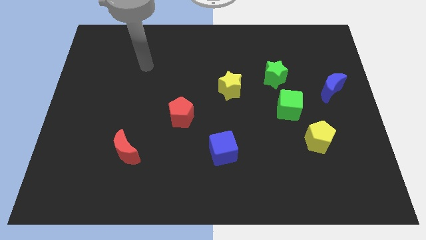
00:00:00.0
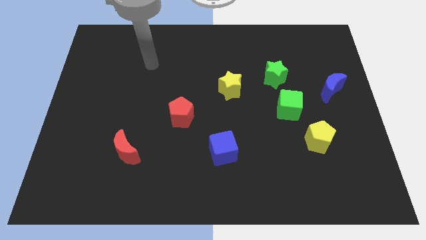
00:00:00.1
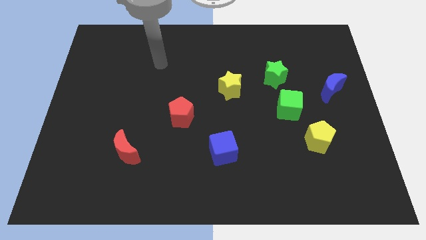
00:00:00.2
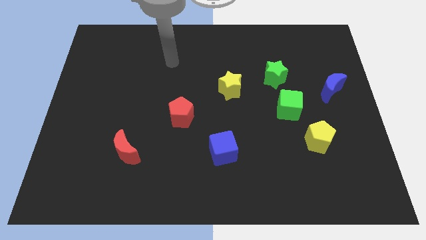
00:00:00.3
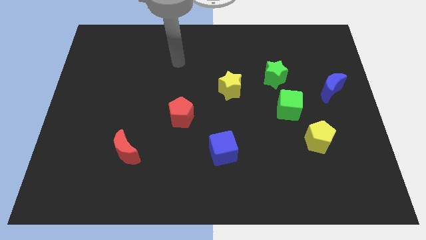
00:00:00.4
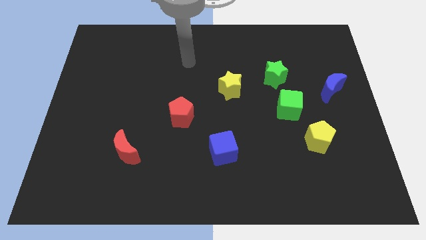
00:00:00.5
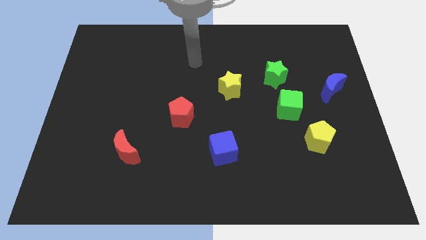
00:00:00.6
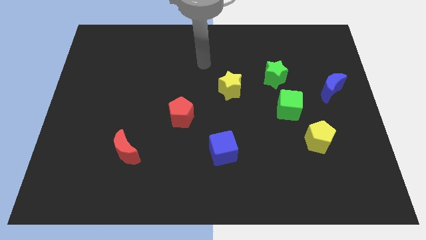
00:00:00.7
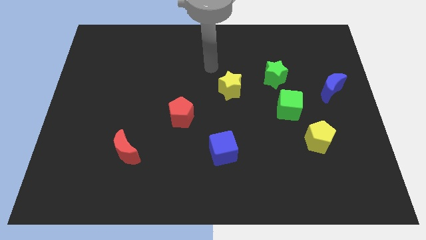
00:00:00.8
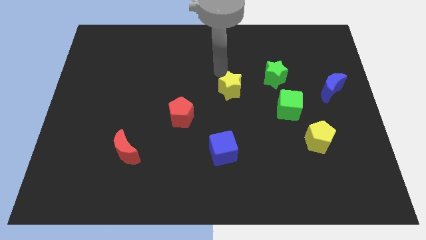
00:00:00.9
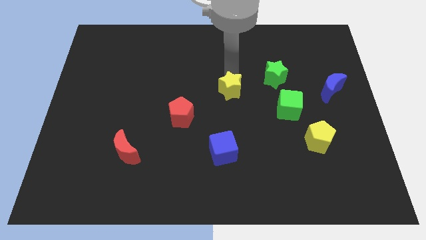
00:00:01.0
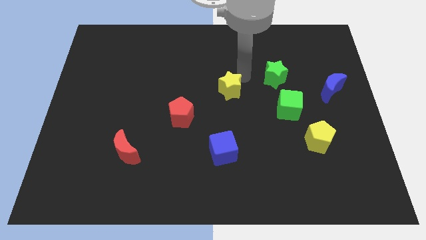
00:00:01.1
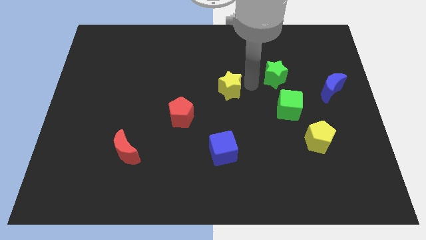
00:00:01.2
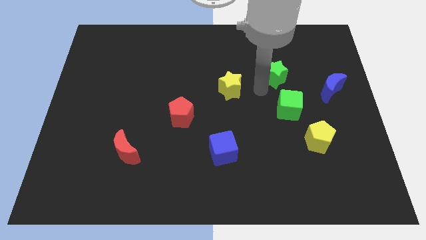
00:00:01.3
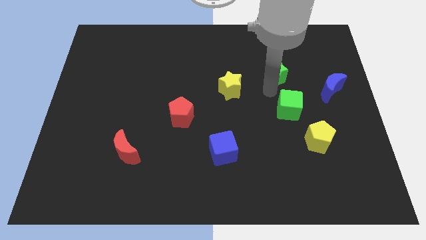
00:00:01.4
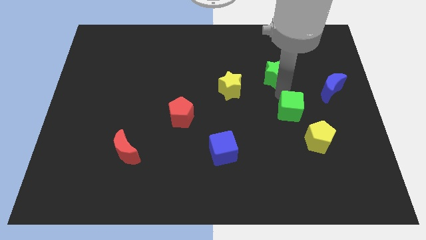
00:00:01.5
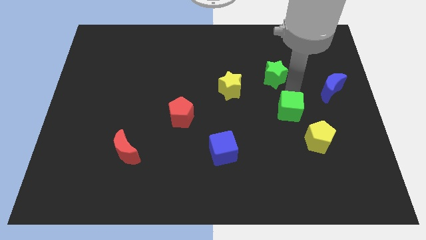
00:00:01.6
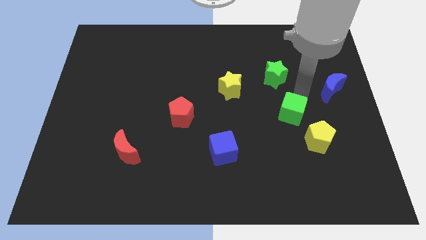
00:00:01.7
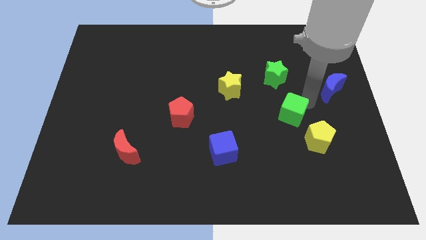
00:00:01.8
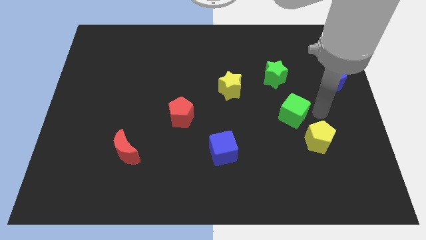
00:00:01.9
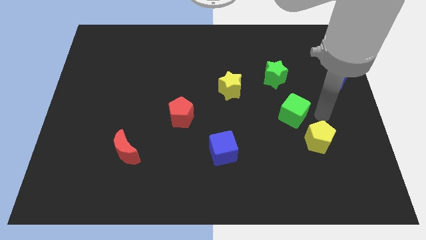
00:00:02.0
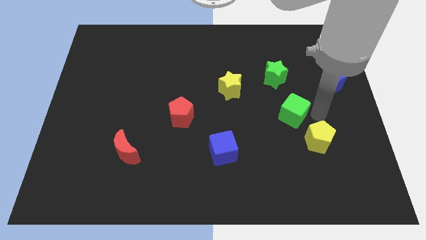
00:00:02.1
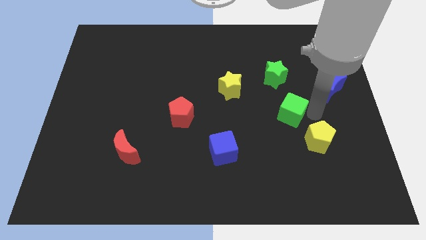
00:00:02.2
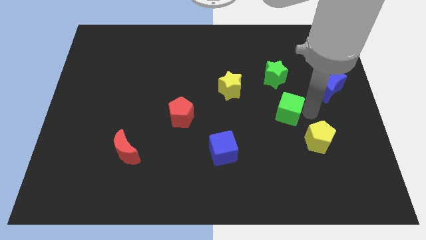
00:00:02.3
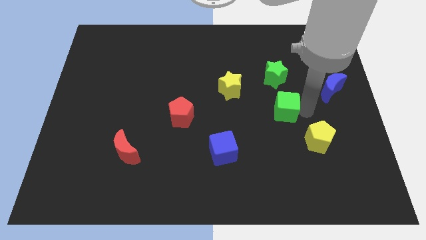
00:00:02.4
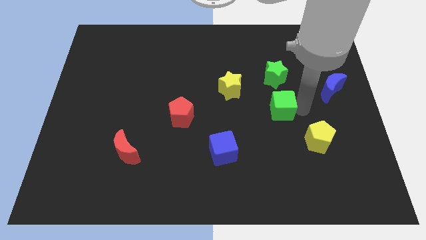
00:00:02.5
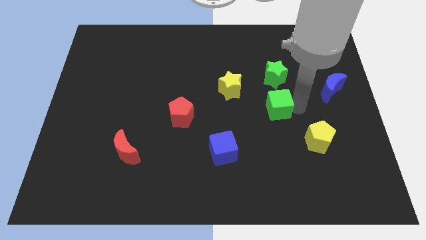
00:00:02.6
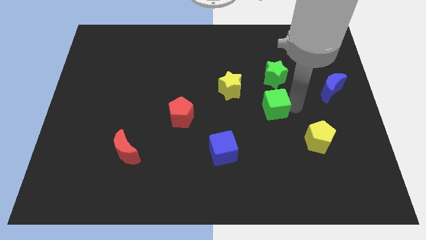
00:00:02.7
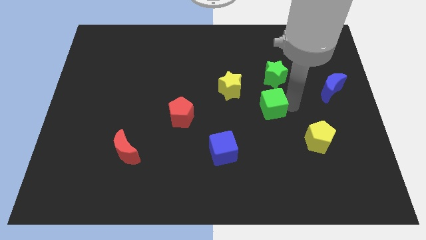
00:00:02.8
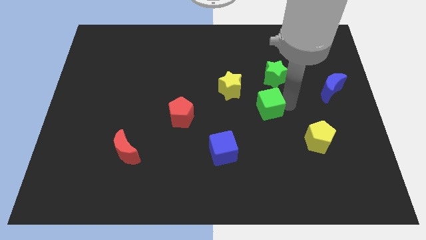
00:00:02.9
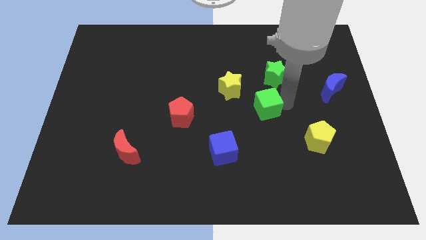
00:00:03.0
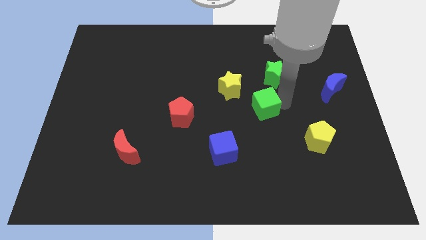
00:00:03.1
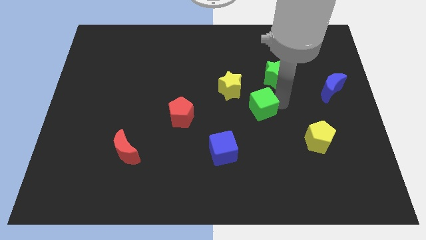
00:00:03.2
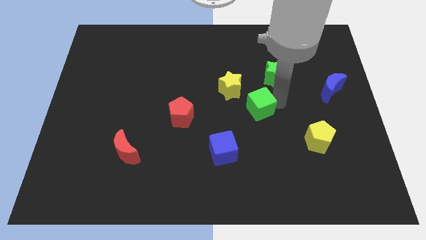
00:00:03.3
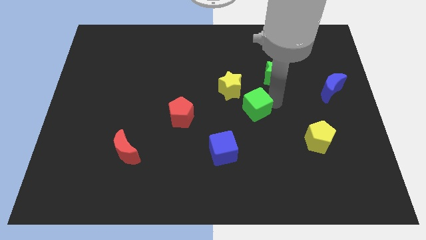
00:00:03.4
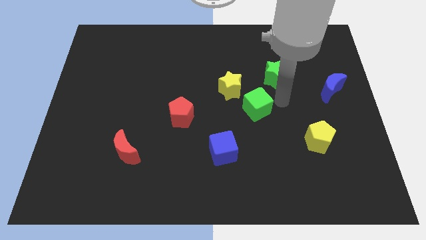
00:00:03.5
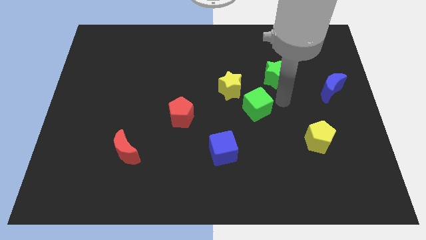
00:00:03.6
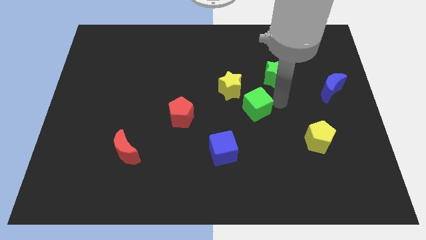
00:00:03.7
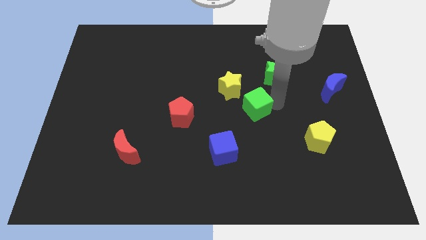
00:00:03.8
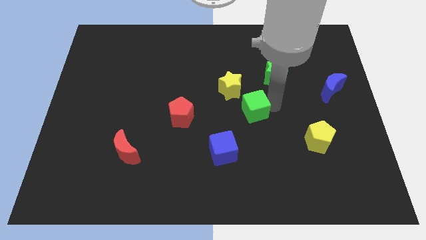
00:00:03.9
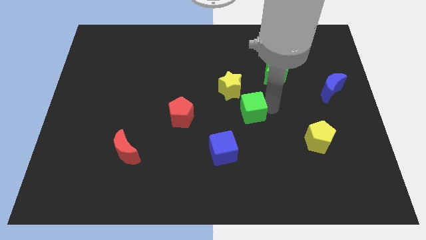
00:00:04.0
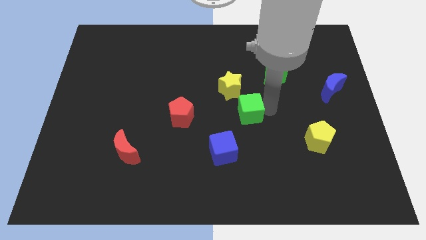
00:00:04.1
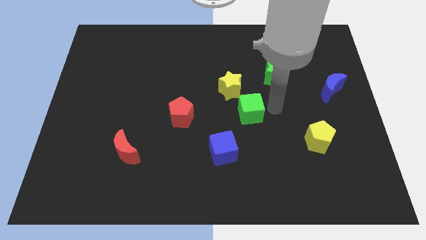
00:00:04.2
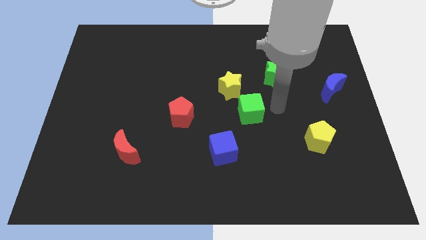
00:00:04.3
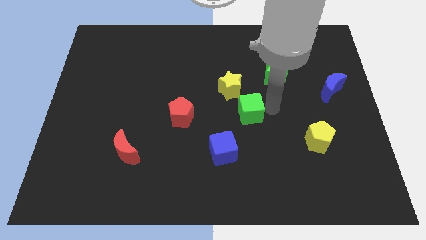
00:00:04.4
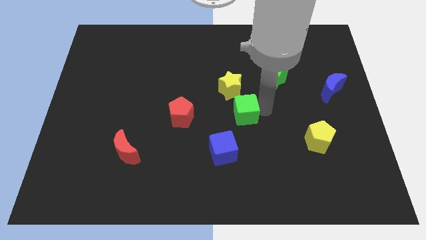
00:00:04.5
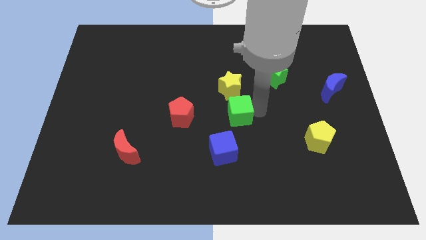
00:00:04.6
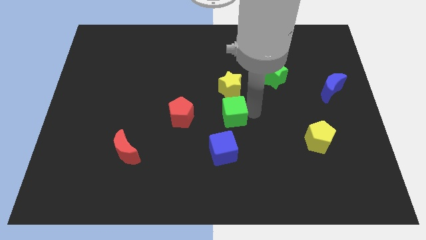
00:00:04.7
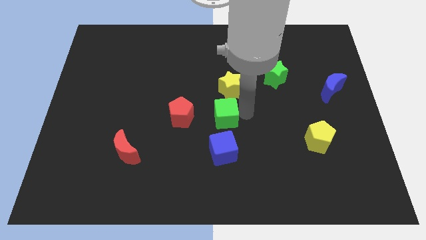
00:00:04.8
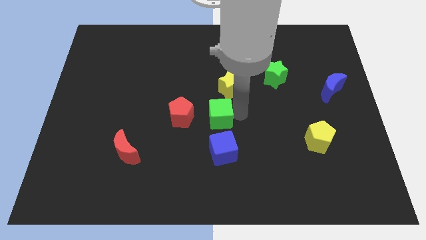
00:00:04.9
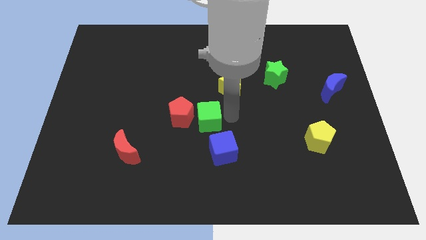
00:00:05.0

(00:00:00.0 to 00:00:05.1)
slide the green cube towards the red pentagon

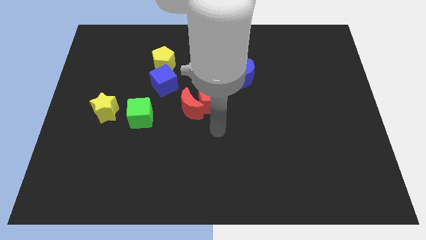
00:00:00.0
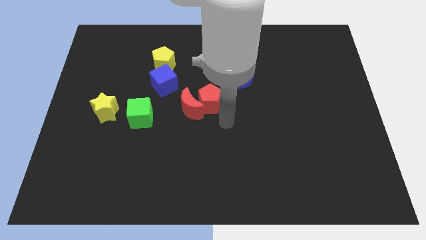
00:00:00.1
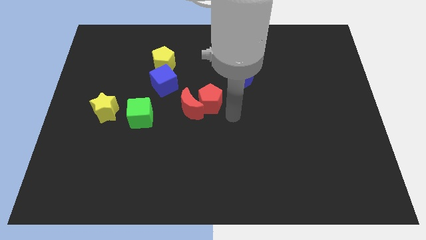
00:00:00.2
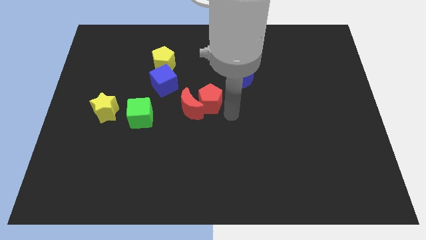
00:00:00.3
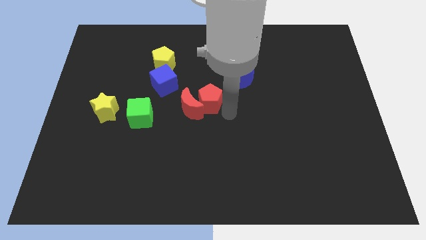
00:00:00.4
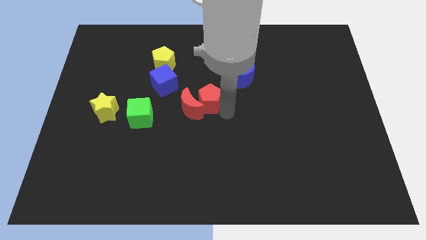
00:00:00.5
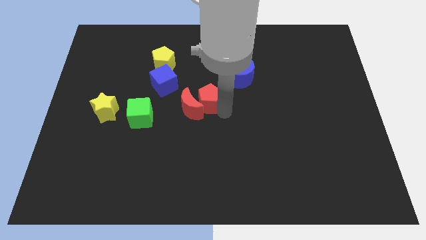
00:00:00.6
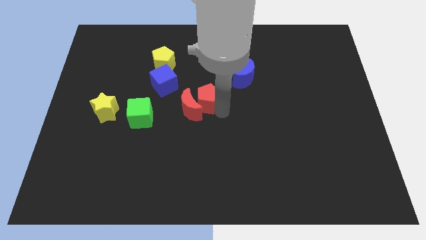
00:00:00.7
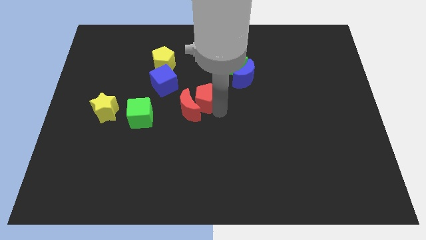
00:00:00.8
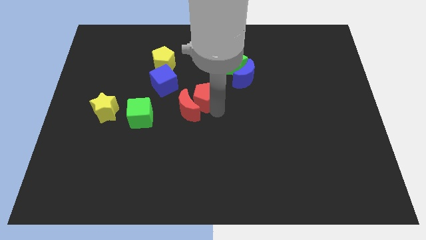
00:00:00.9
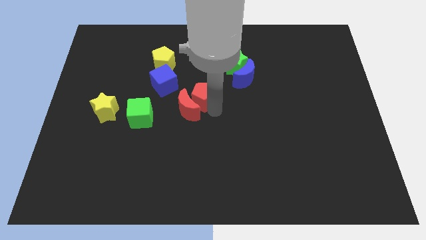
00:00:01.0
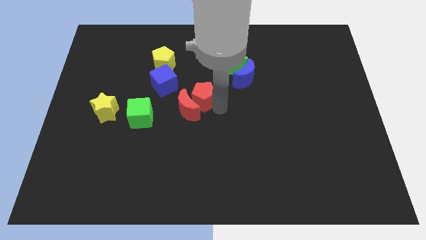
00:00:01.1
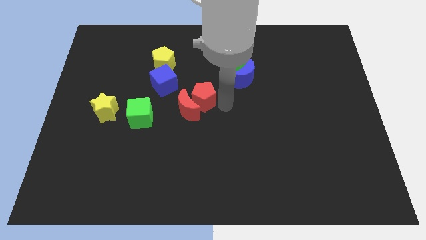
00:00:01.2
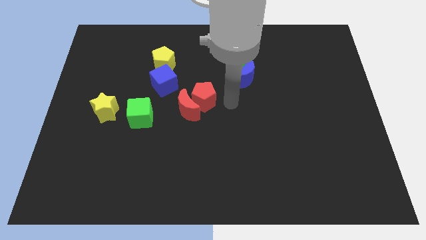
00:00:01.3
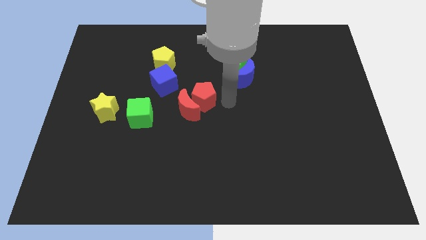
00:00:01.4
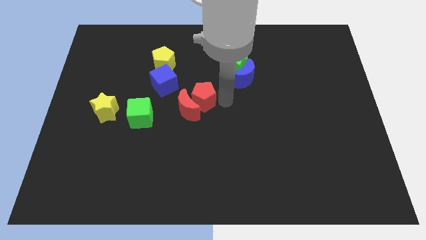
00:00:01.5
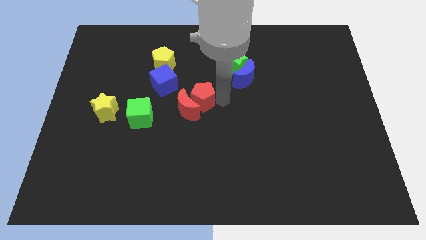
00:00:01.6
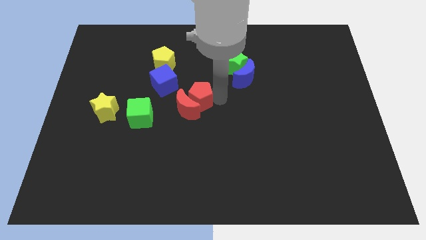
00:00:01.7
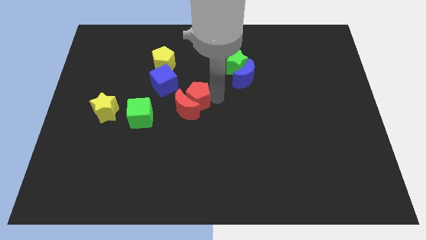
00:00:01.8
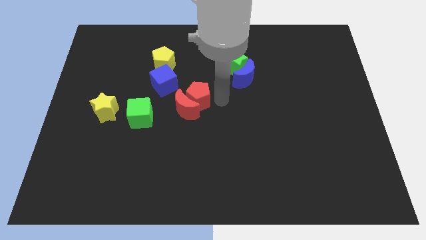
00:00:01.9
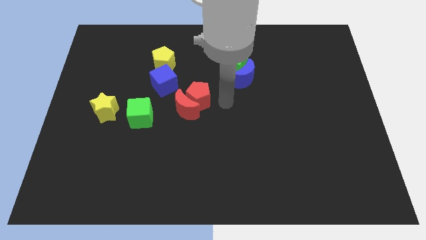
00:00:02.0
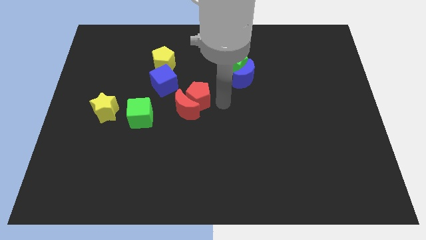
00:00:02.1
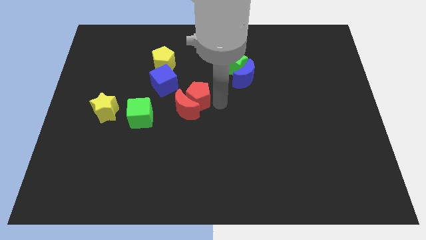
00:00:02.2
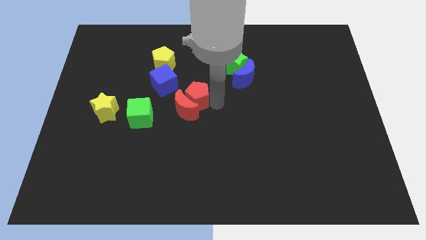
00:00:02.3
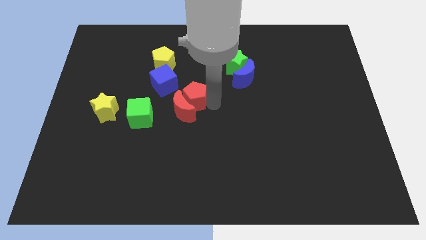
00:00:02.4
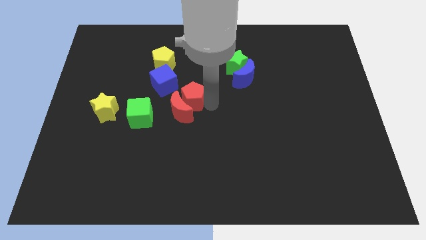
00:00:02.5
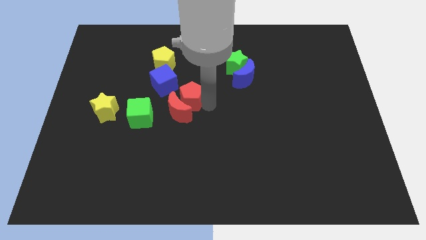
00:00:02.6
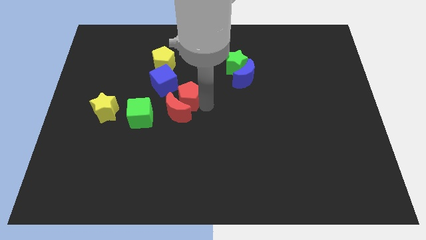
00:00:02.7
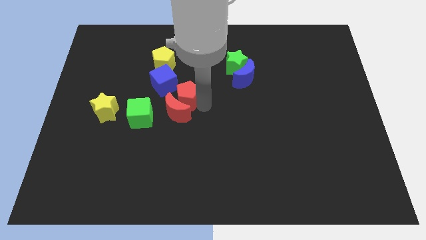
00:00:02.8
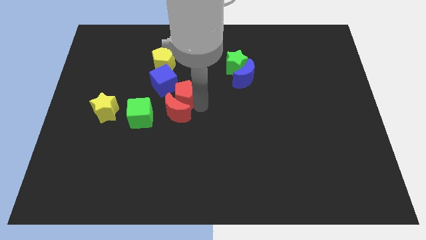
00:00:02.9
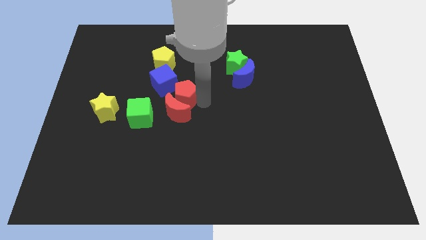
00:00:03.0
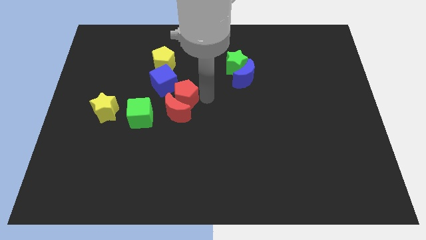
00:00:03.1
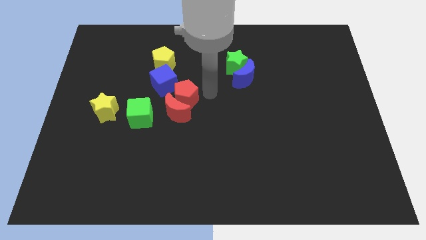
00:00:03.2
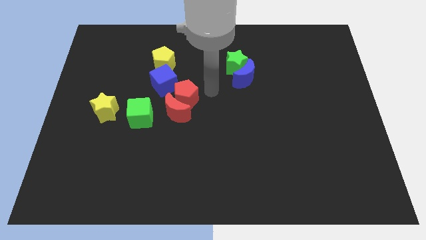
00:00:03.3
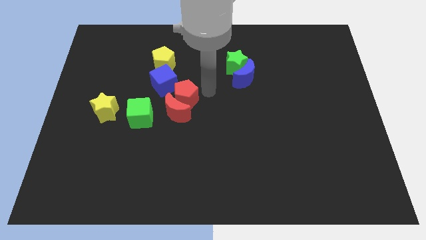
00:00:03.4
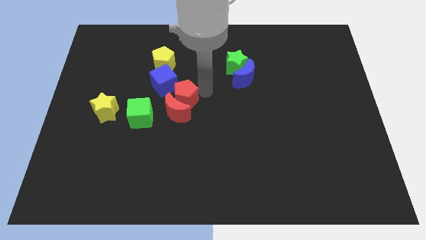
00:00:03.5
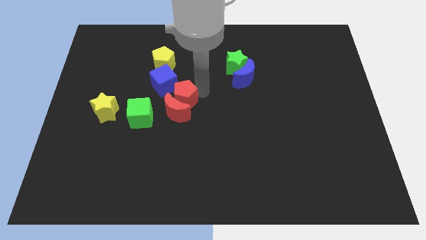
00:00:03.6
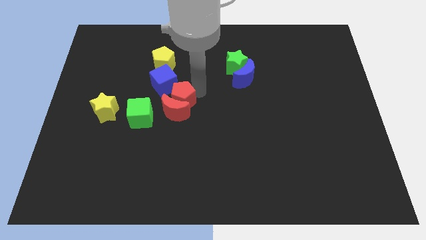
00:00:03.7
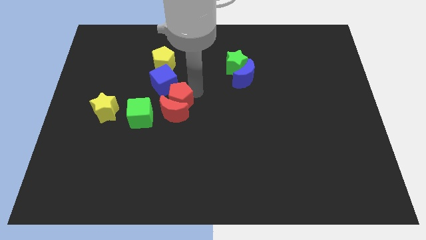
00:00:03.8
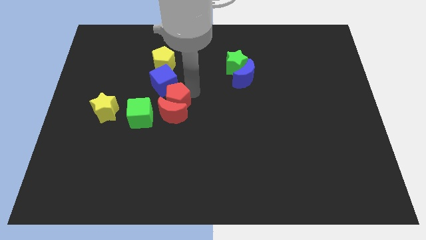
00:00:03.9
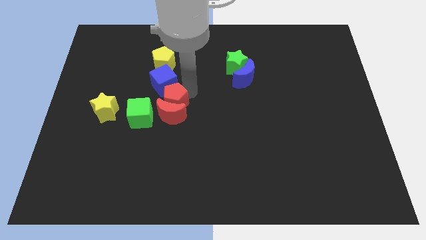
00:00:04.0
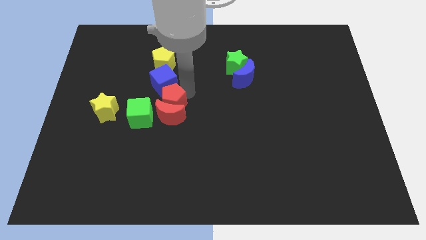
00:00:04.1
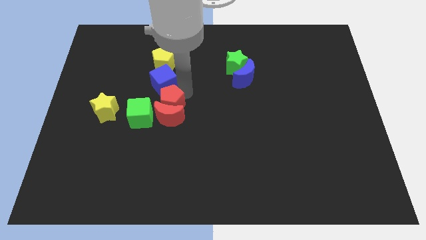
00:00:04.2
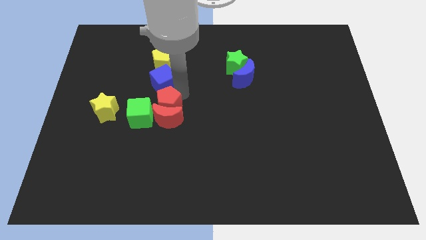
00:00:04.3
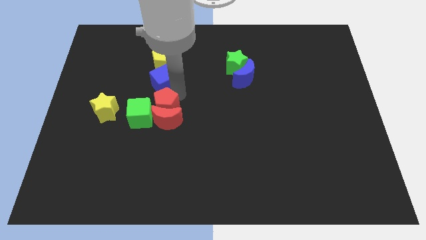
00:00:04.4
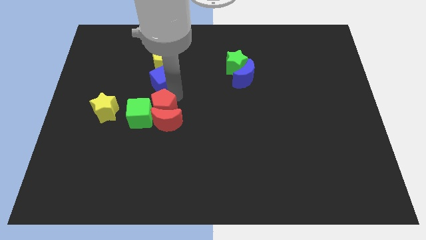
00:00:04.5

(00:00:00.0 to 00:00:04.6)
put the red pentagon towards the green cube
